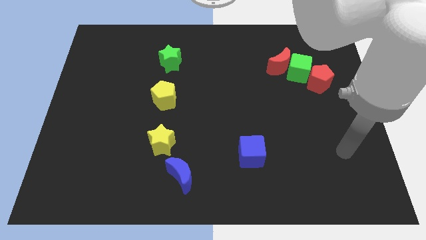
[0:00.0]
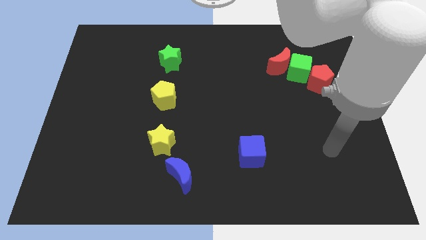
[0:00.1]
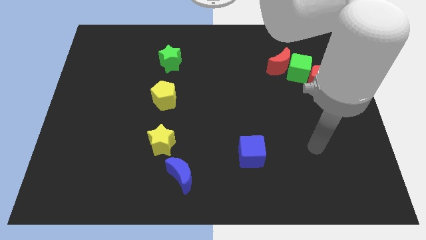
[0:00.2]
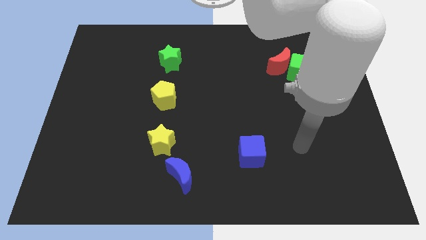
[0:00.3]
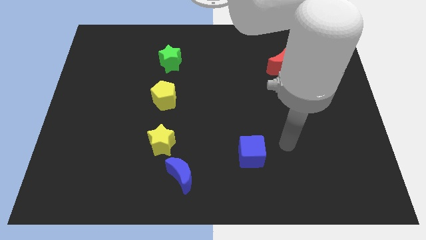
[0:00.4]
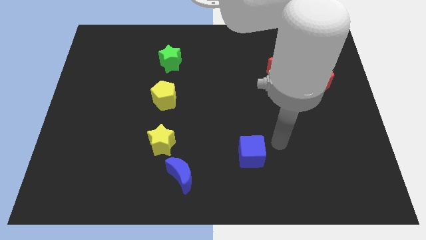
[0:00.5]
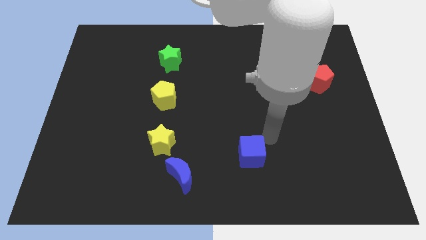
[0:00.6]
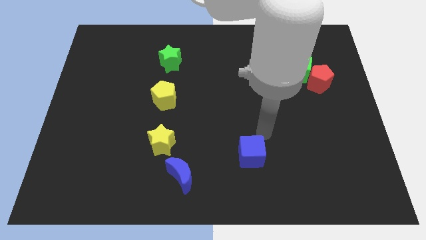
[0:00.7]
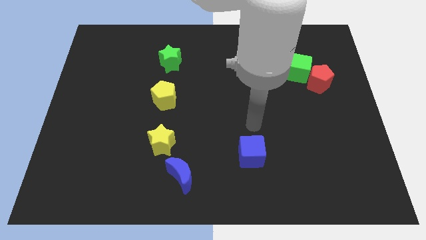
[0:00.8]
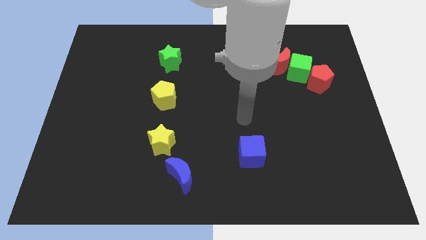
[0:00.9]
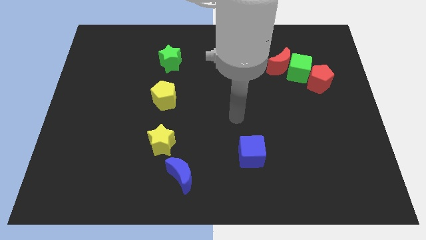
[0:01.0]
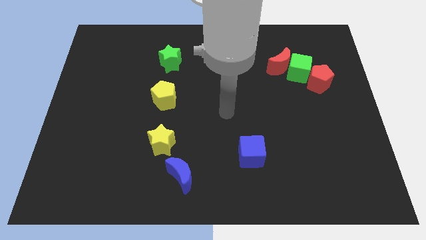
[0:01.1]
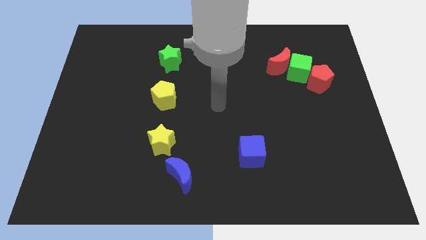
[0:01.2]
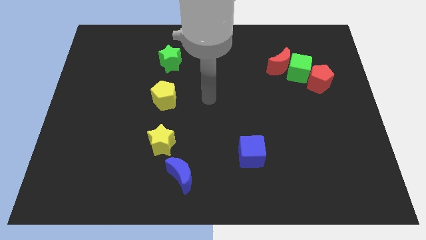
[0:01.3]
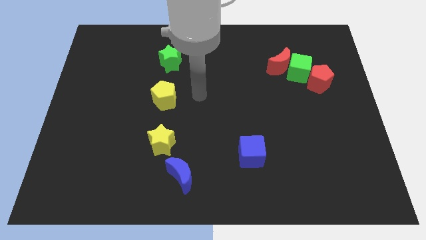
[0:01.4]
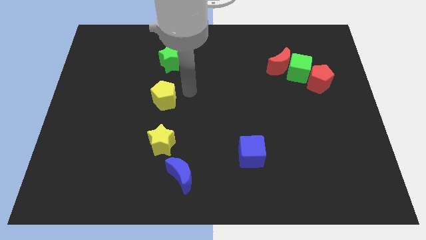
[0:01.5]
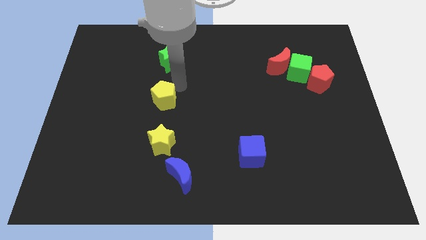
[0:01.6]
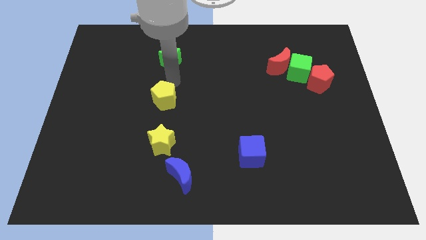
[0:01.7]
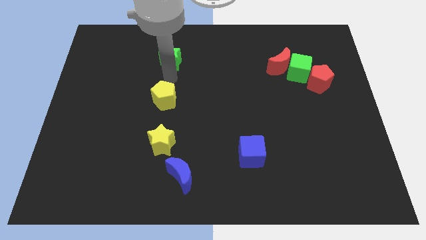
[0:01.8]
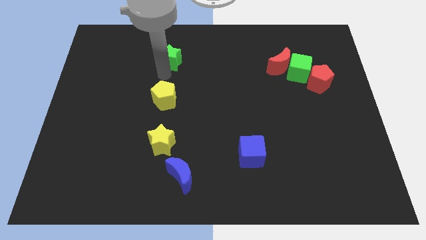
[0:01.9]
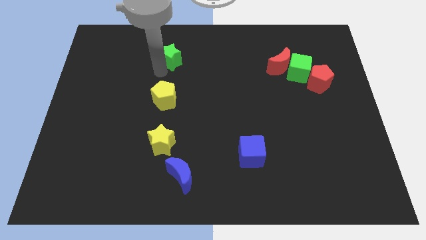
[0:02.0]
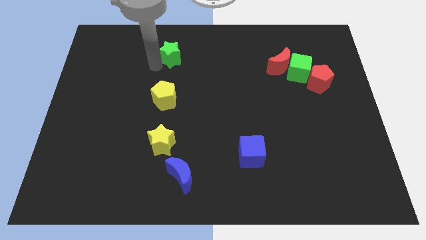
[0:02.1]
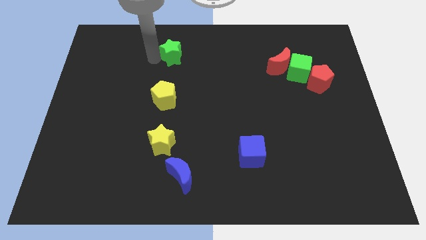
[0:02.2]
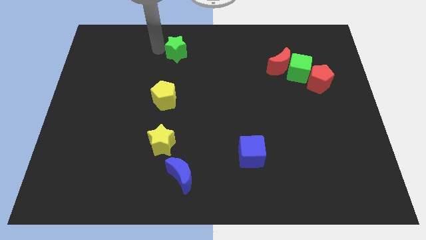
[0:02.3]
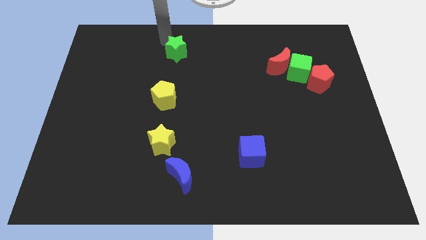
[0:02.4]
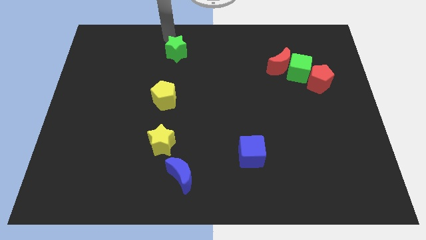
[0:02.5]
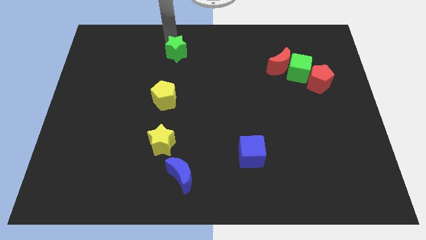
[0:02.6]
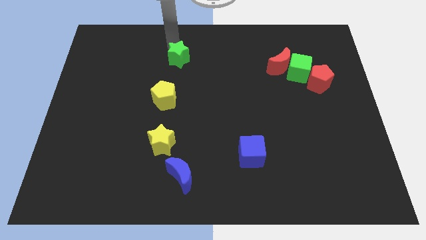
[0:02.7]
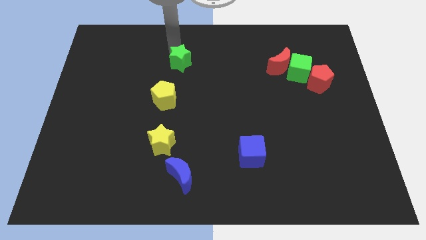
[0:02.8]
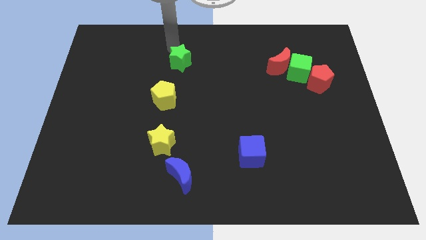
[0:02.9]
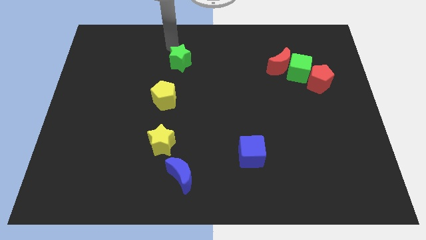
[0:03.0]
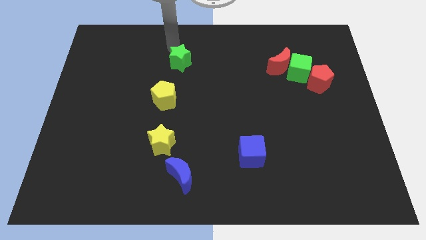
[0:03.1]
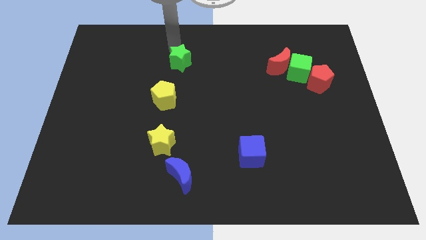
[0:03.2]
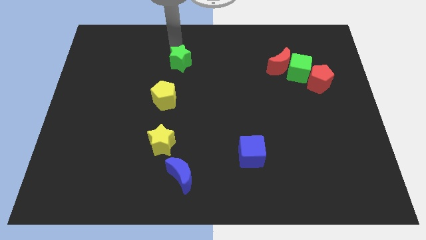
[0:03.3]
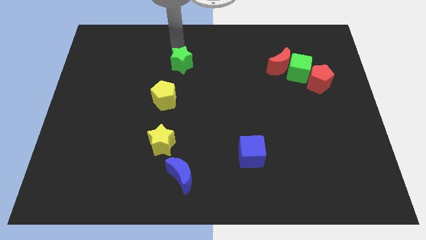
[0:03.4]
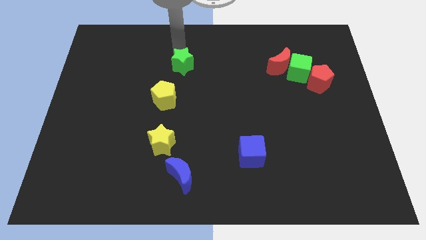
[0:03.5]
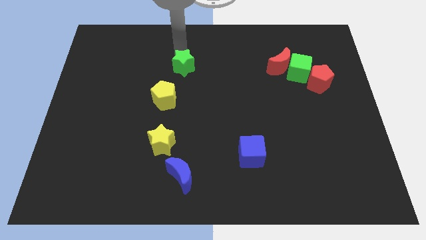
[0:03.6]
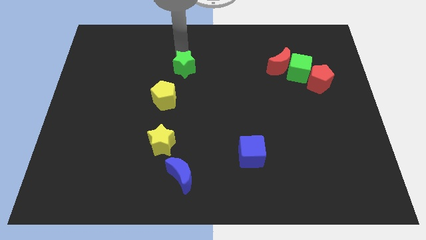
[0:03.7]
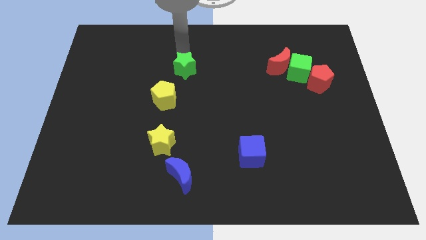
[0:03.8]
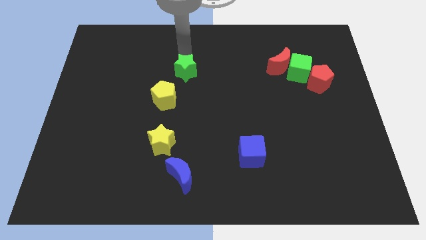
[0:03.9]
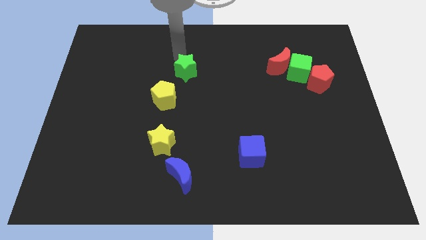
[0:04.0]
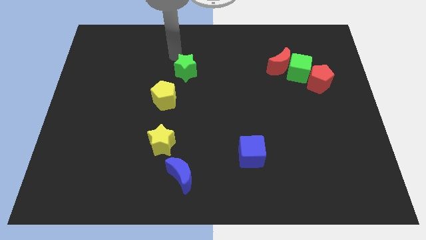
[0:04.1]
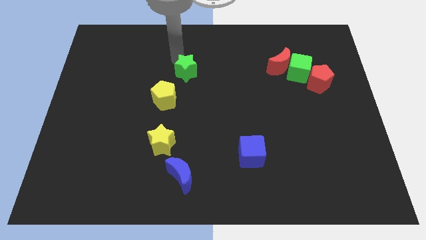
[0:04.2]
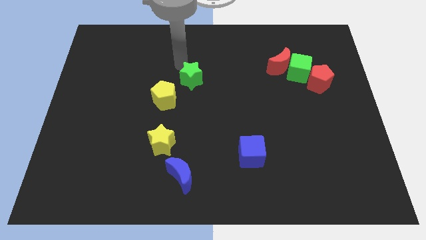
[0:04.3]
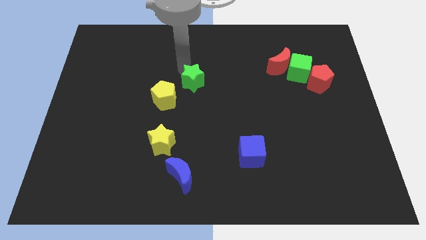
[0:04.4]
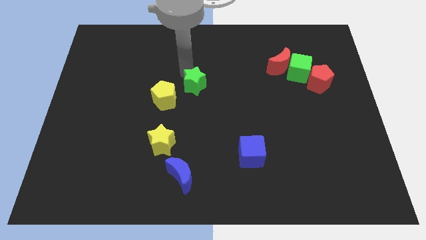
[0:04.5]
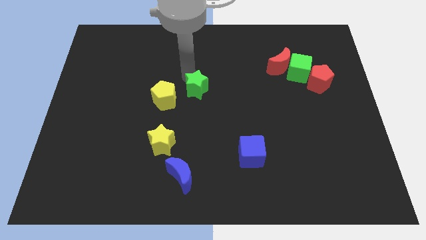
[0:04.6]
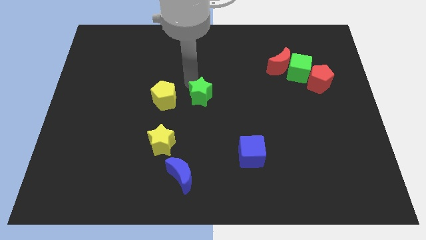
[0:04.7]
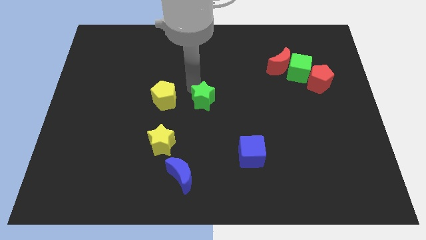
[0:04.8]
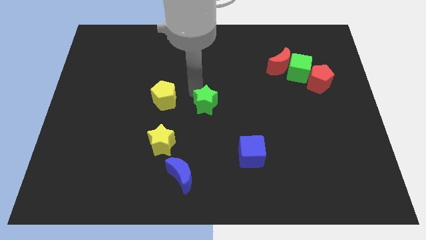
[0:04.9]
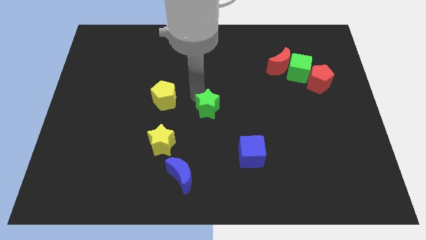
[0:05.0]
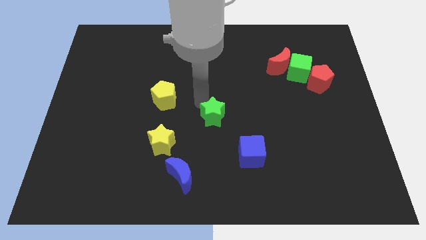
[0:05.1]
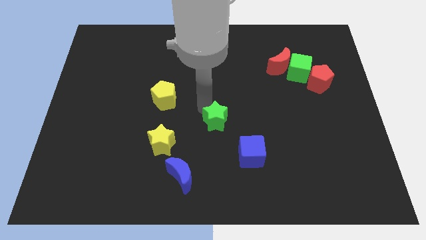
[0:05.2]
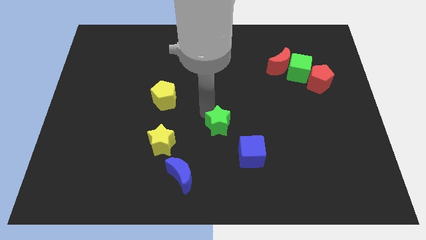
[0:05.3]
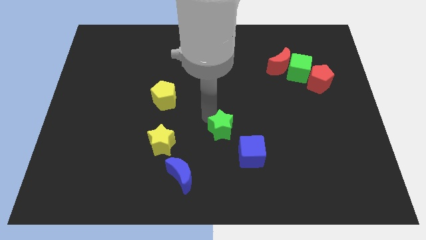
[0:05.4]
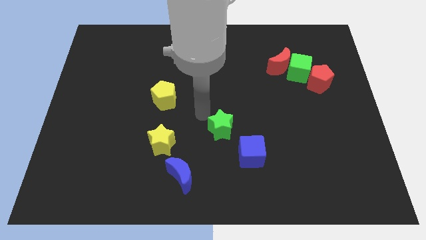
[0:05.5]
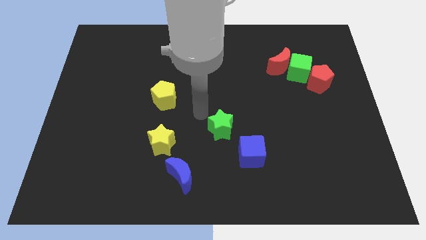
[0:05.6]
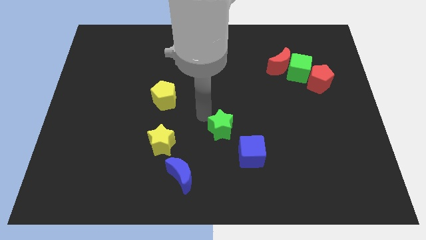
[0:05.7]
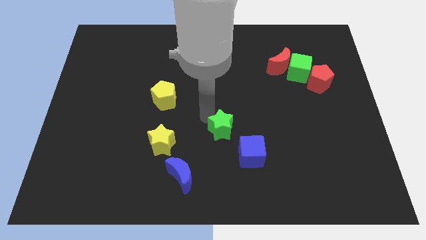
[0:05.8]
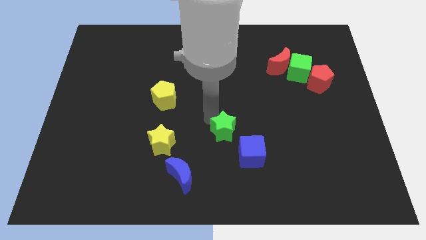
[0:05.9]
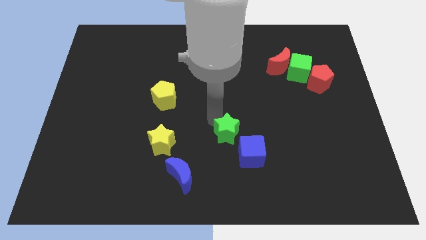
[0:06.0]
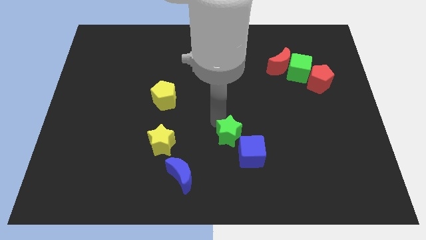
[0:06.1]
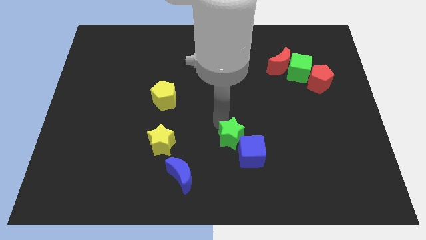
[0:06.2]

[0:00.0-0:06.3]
push the green star next to the blue cube

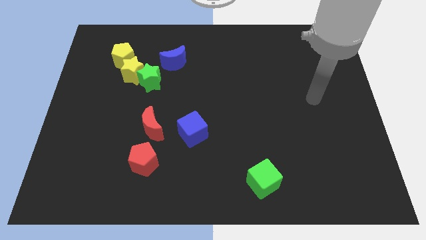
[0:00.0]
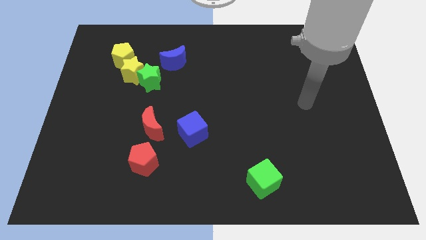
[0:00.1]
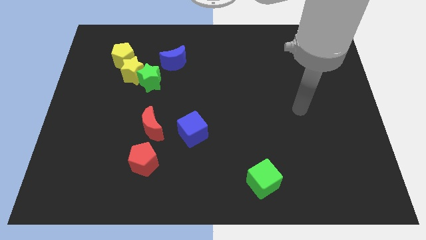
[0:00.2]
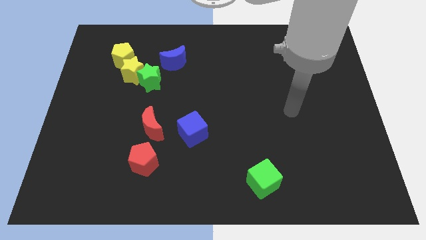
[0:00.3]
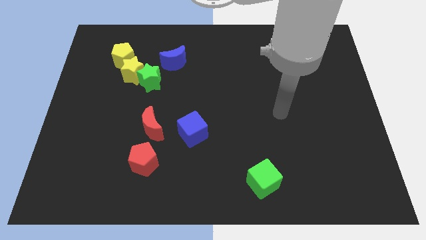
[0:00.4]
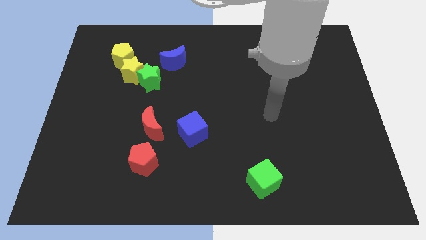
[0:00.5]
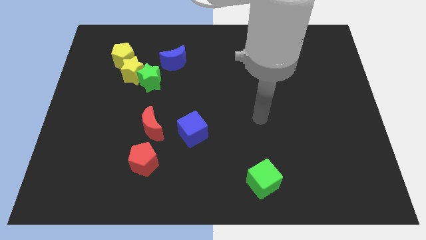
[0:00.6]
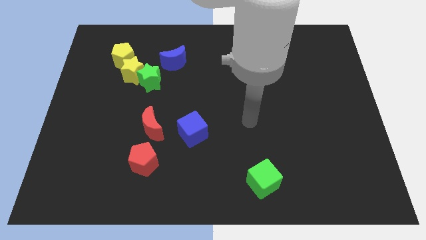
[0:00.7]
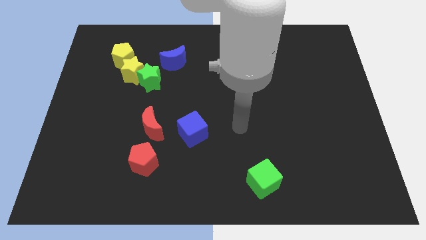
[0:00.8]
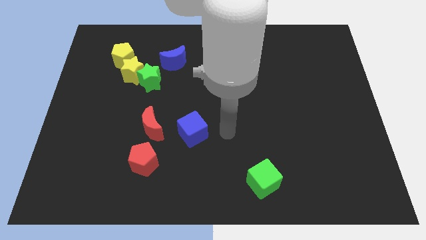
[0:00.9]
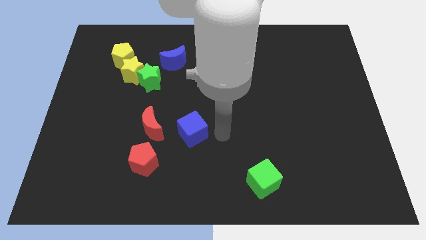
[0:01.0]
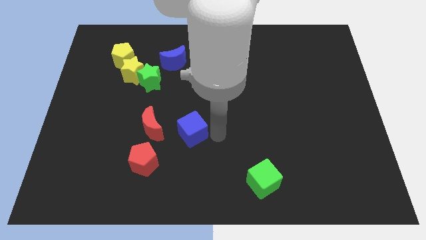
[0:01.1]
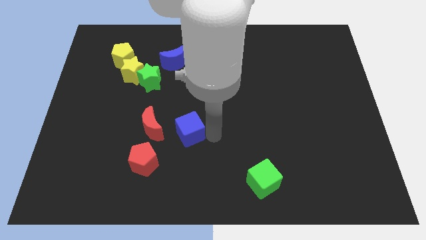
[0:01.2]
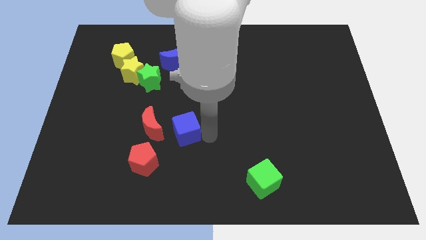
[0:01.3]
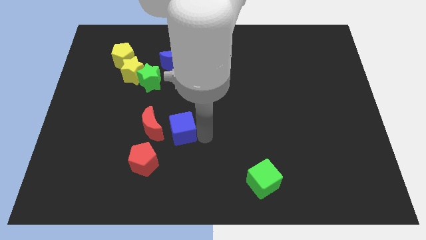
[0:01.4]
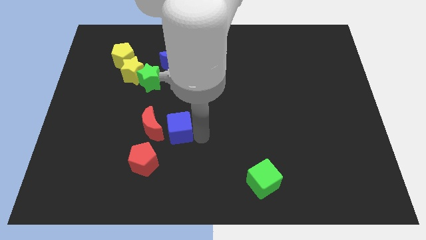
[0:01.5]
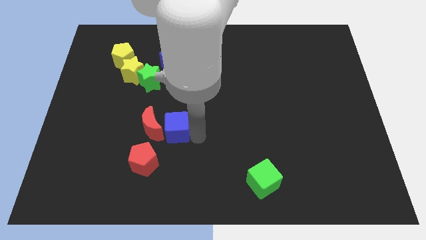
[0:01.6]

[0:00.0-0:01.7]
put the blue cube next to the red moon
